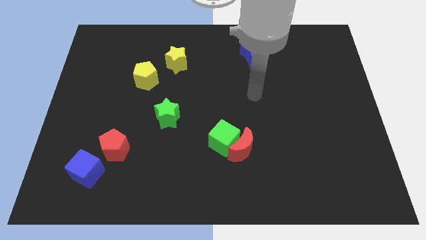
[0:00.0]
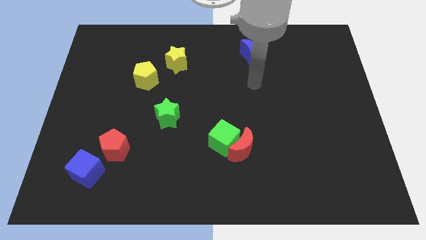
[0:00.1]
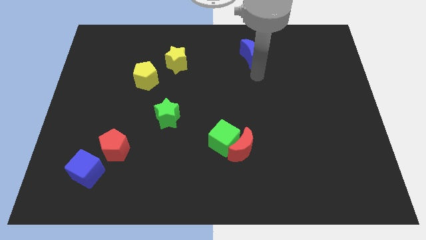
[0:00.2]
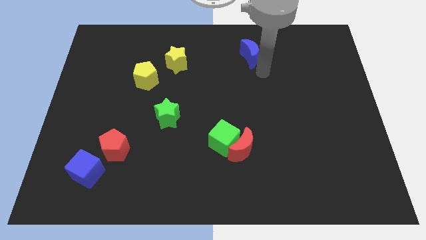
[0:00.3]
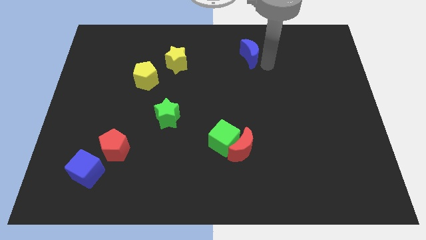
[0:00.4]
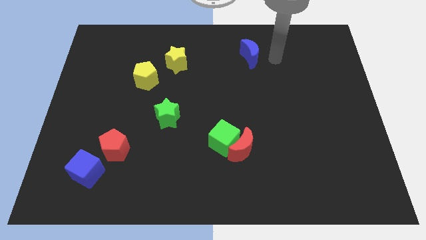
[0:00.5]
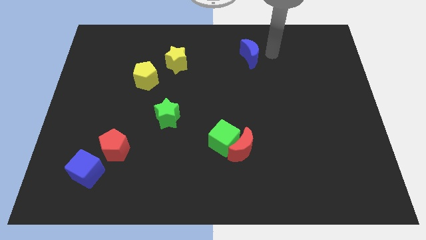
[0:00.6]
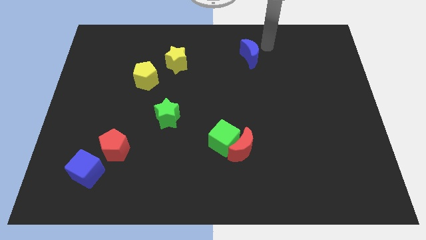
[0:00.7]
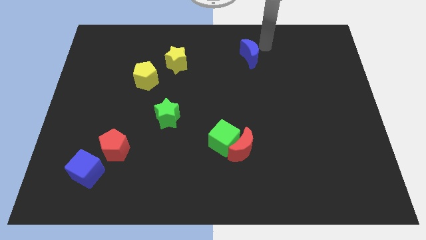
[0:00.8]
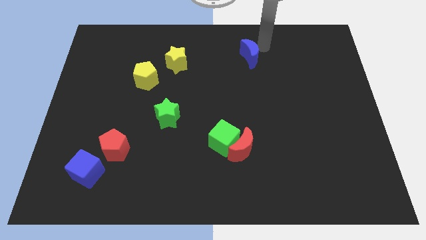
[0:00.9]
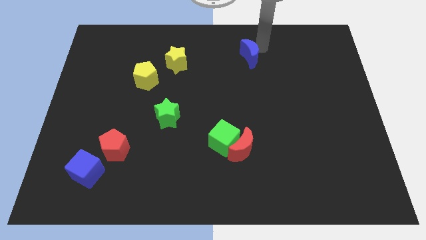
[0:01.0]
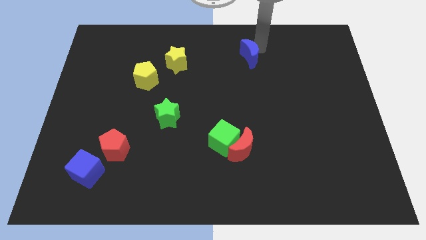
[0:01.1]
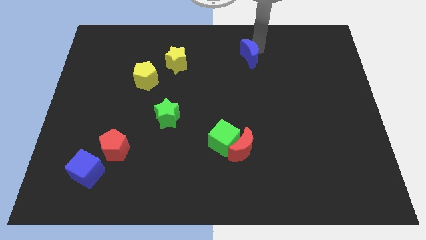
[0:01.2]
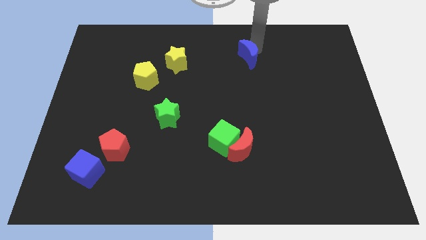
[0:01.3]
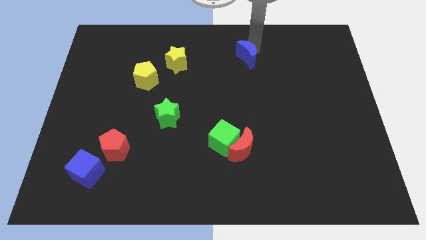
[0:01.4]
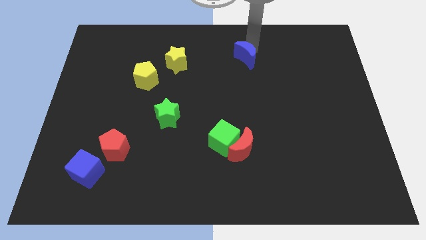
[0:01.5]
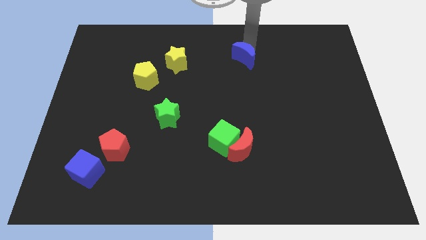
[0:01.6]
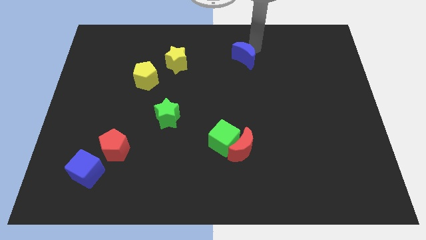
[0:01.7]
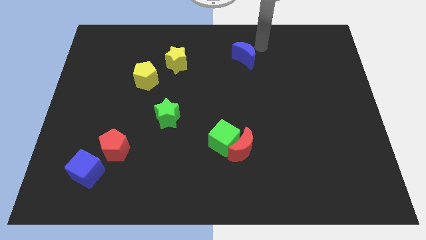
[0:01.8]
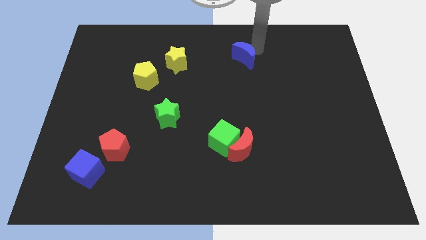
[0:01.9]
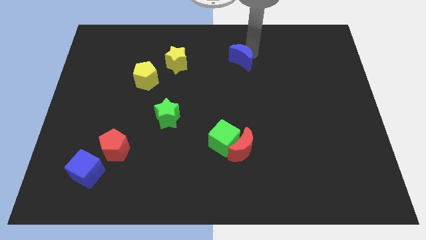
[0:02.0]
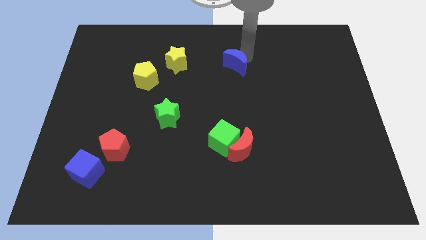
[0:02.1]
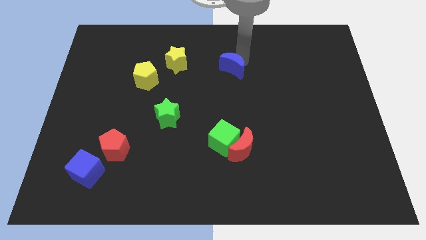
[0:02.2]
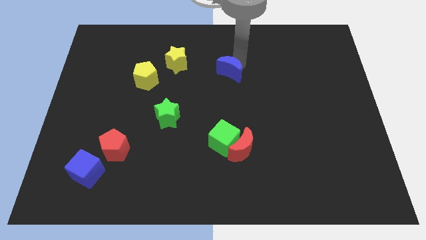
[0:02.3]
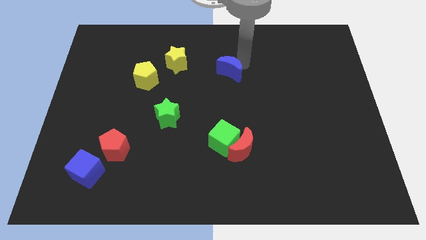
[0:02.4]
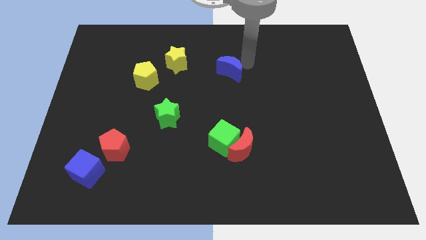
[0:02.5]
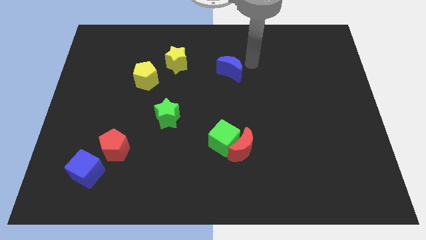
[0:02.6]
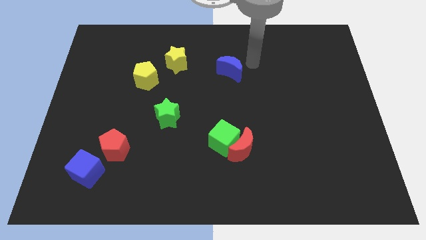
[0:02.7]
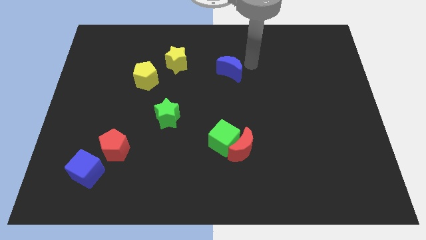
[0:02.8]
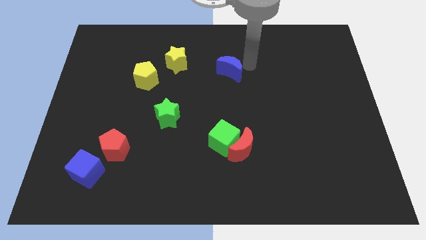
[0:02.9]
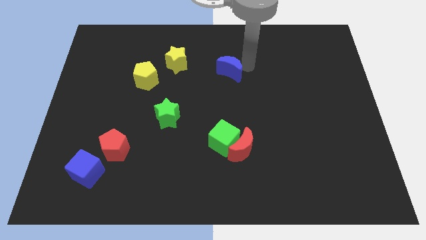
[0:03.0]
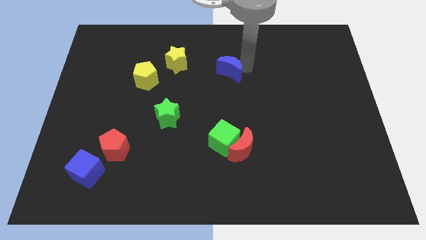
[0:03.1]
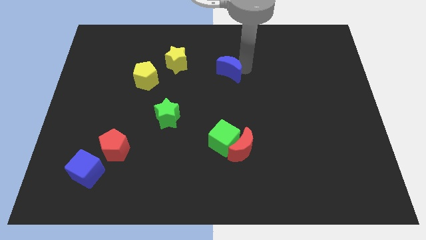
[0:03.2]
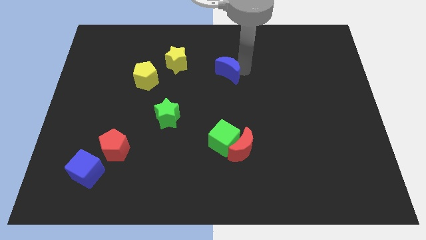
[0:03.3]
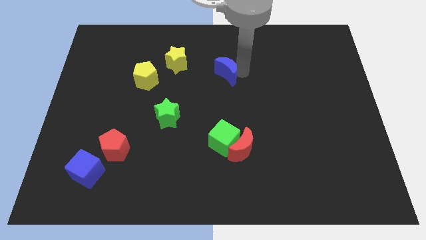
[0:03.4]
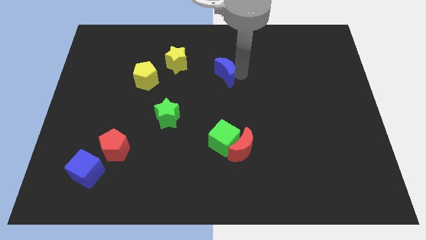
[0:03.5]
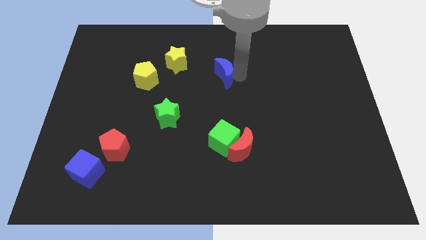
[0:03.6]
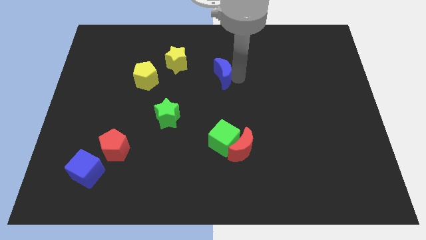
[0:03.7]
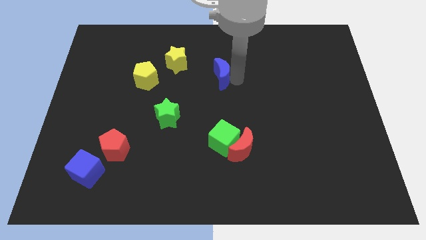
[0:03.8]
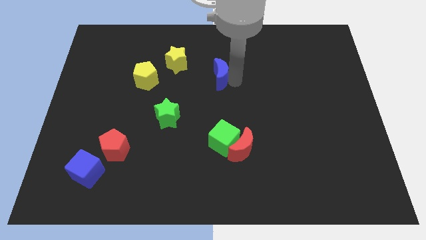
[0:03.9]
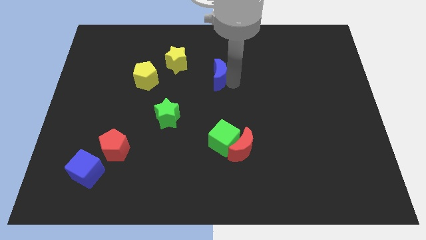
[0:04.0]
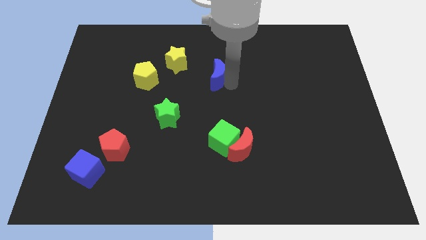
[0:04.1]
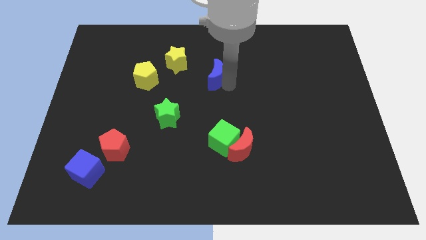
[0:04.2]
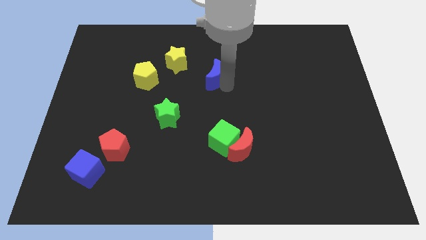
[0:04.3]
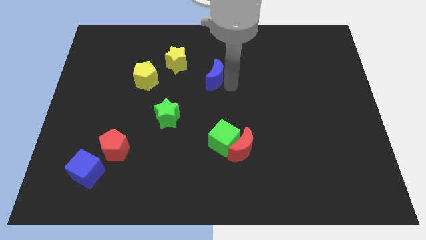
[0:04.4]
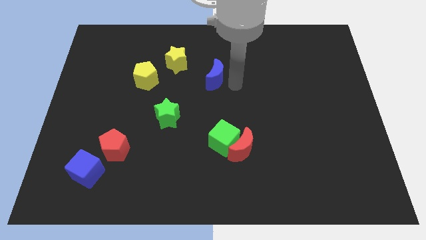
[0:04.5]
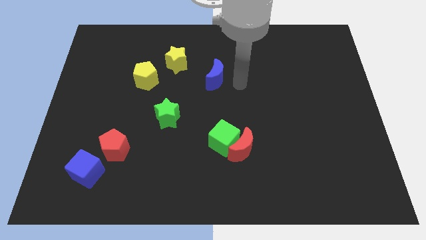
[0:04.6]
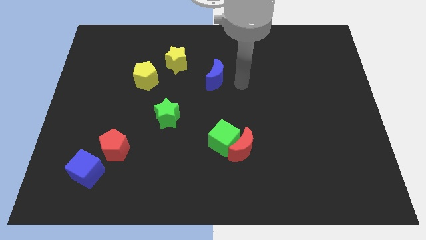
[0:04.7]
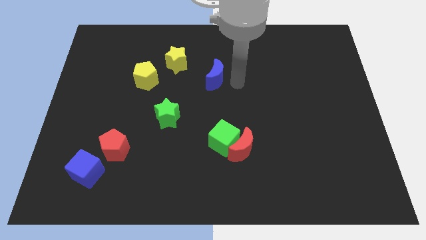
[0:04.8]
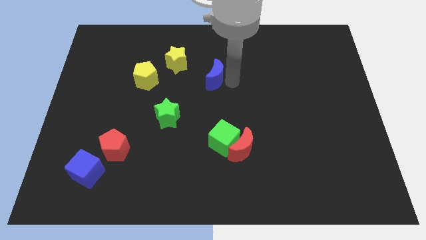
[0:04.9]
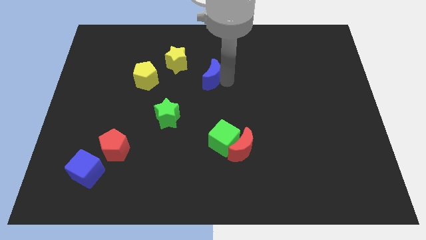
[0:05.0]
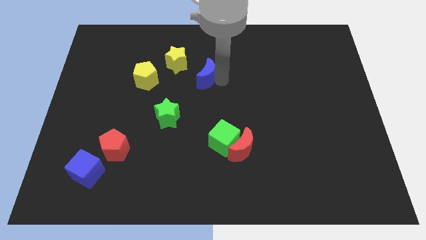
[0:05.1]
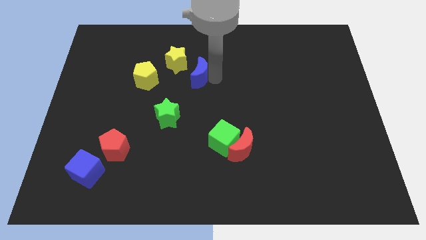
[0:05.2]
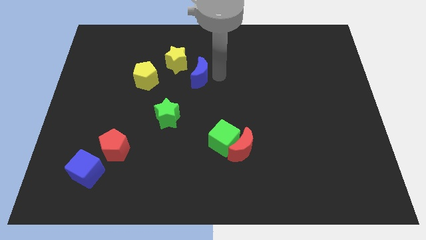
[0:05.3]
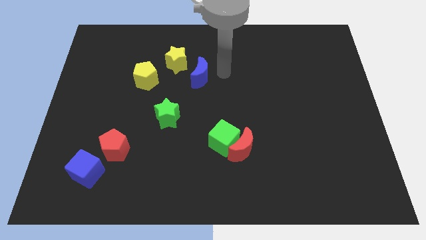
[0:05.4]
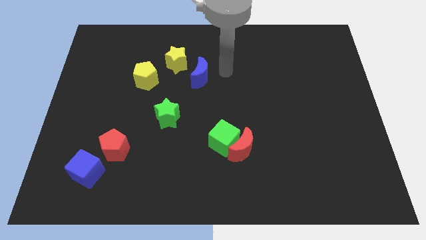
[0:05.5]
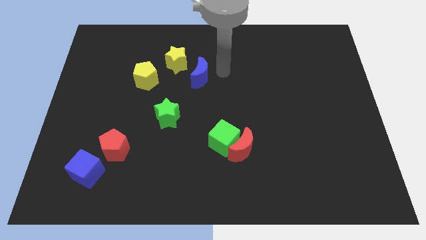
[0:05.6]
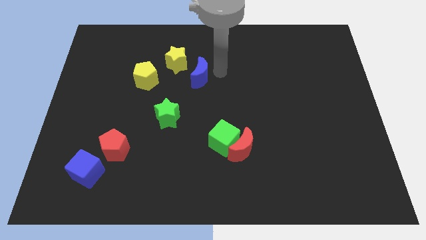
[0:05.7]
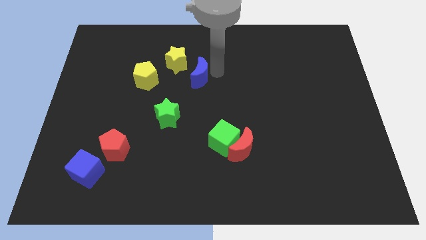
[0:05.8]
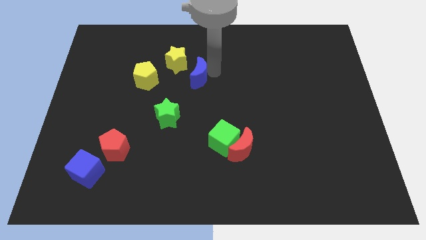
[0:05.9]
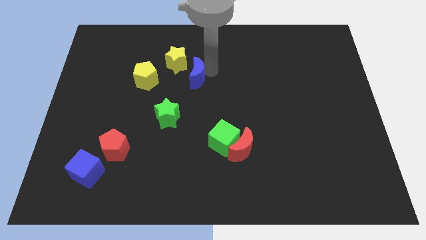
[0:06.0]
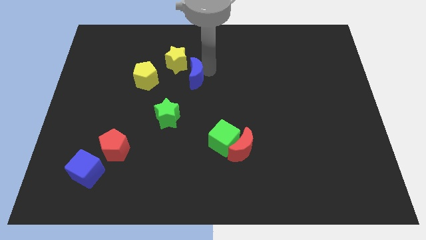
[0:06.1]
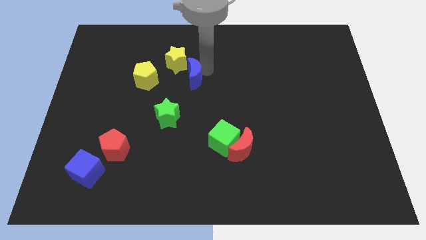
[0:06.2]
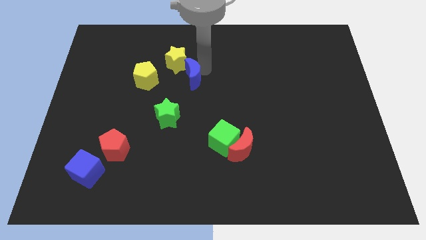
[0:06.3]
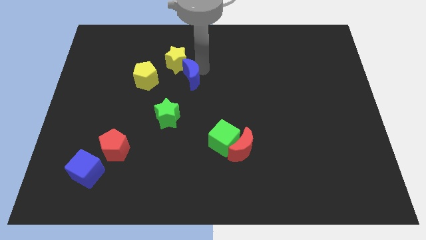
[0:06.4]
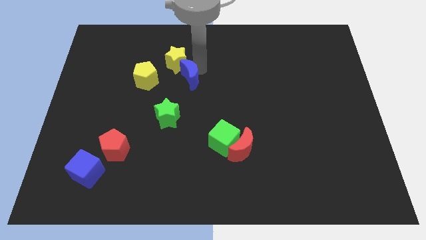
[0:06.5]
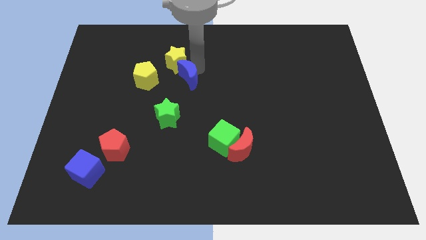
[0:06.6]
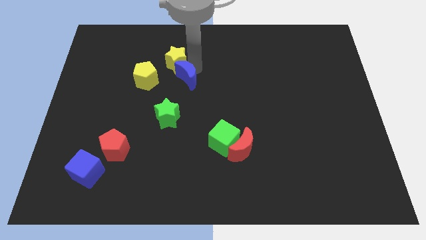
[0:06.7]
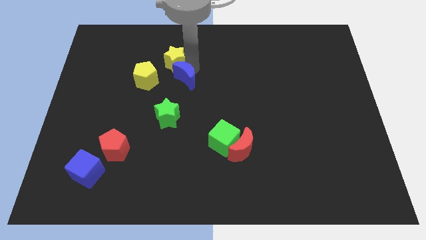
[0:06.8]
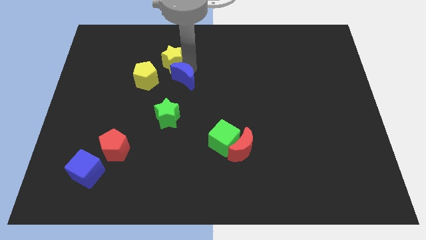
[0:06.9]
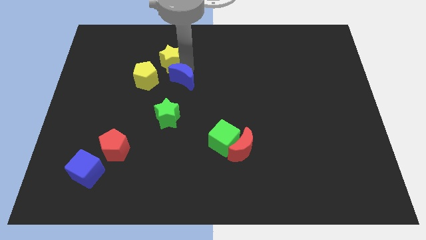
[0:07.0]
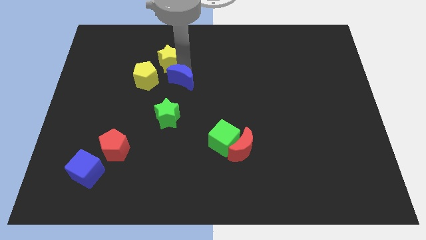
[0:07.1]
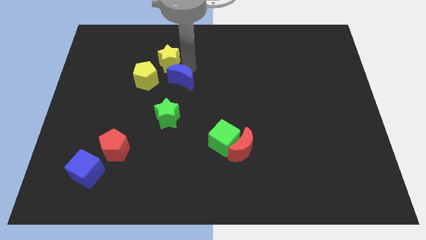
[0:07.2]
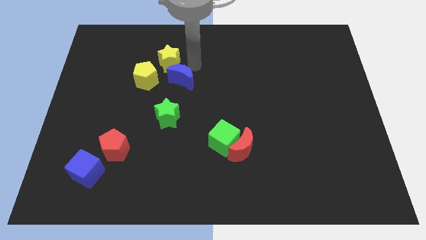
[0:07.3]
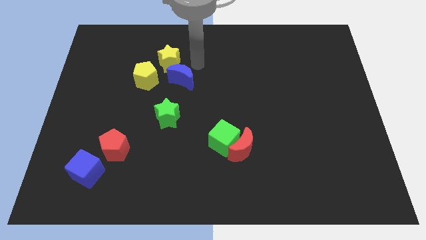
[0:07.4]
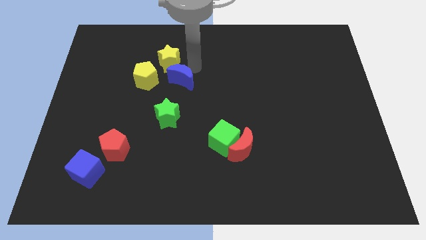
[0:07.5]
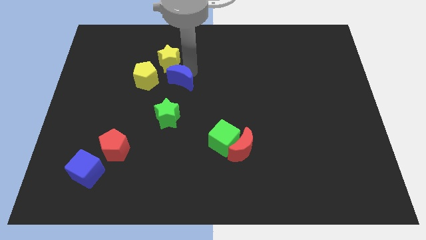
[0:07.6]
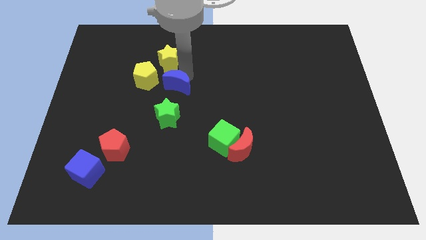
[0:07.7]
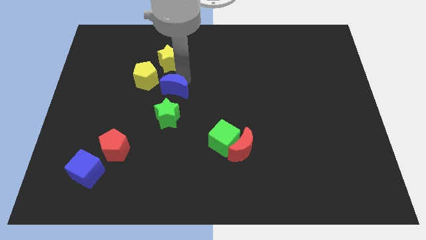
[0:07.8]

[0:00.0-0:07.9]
push the blue moon down and to the left
